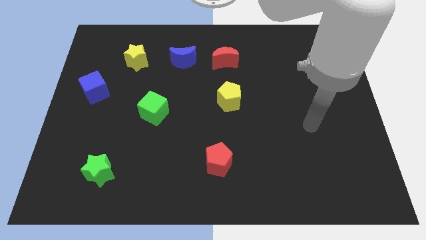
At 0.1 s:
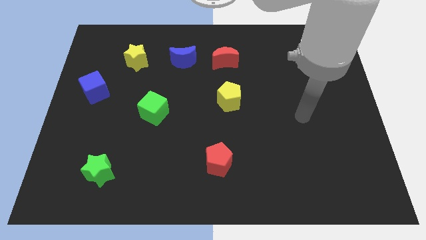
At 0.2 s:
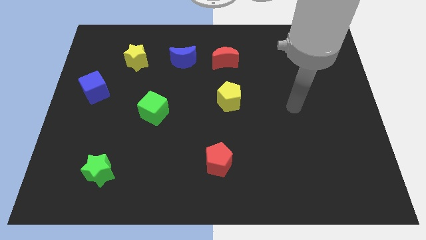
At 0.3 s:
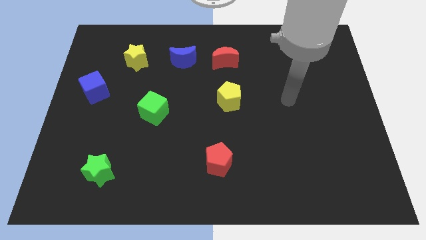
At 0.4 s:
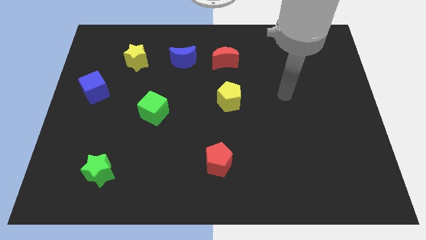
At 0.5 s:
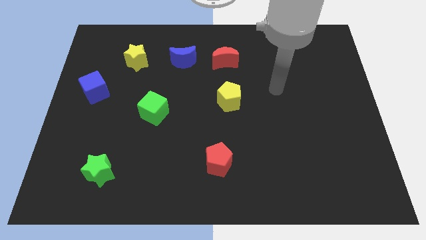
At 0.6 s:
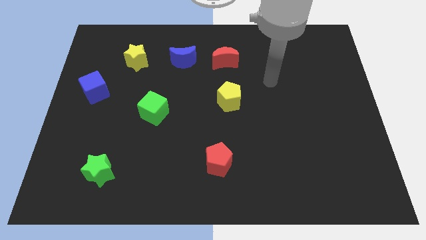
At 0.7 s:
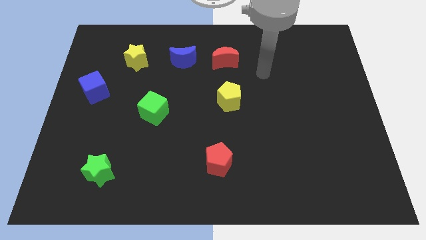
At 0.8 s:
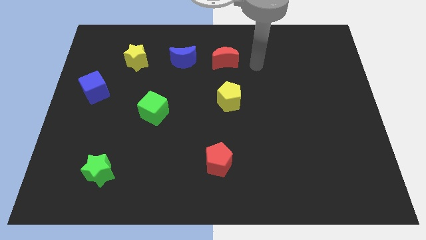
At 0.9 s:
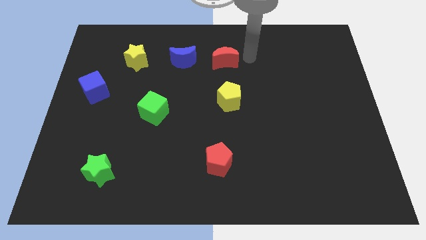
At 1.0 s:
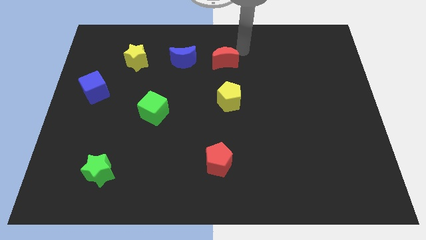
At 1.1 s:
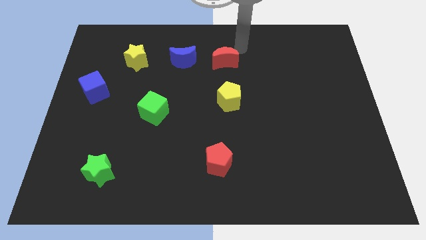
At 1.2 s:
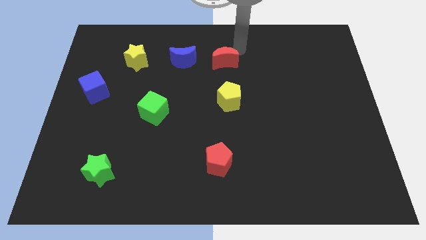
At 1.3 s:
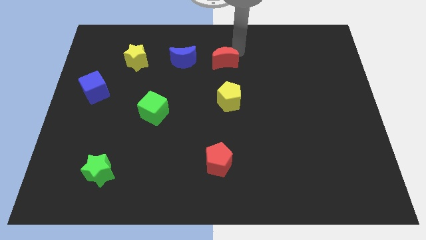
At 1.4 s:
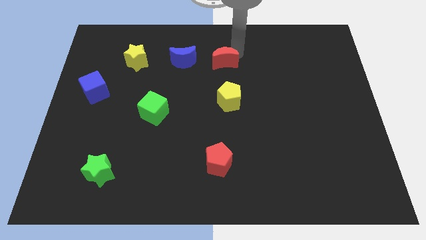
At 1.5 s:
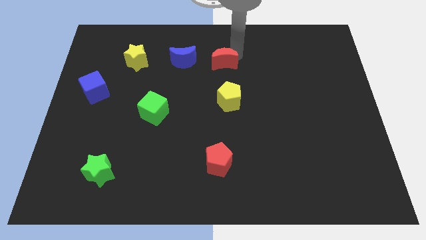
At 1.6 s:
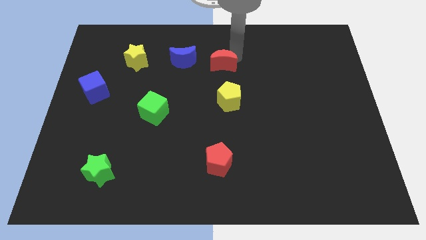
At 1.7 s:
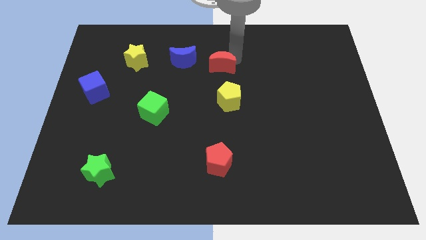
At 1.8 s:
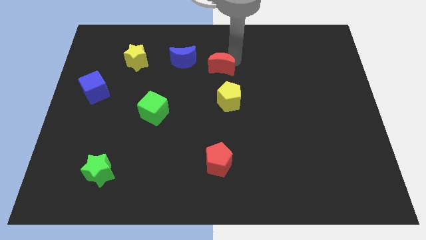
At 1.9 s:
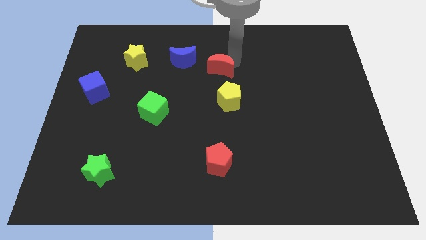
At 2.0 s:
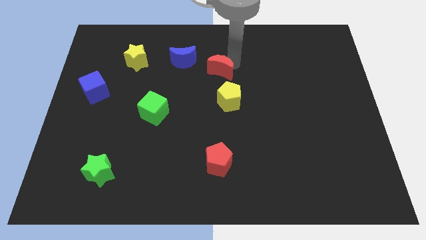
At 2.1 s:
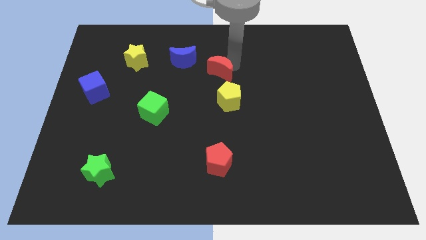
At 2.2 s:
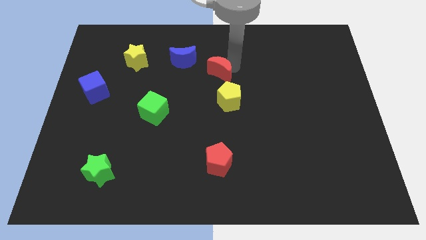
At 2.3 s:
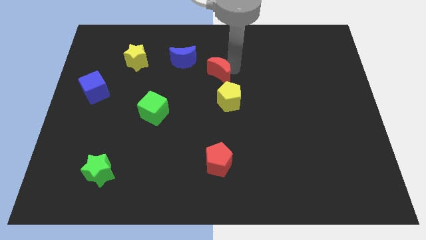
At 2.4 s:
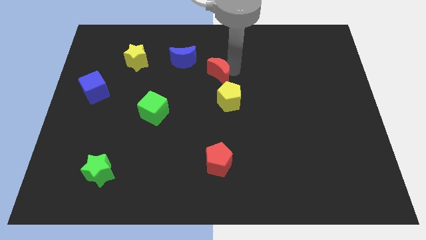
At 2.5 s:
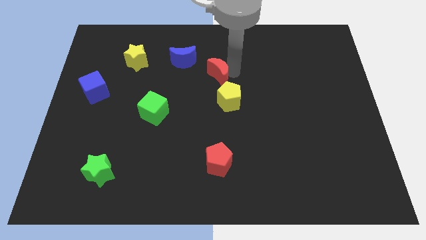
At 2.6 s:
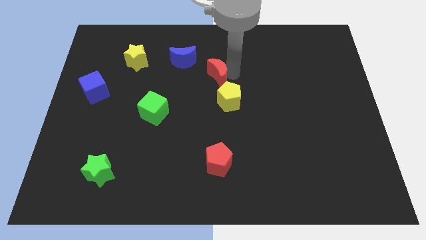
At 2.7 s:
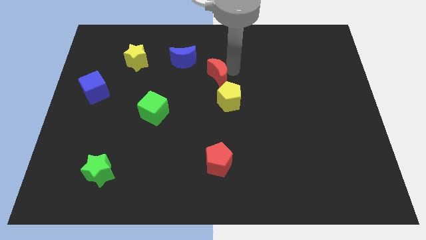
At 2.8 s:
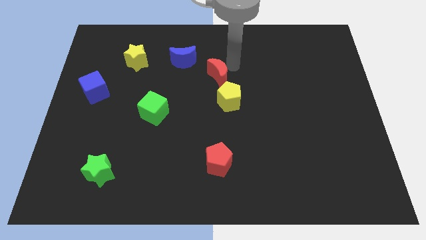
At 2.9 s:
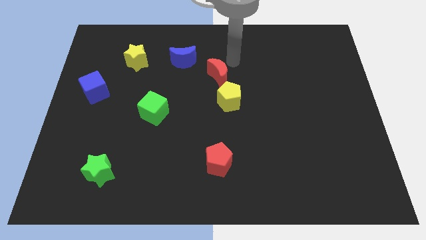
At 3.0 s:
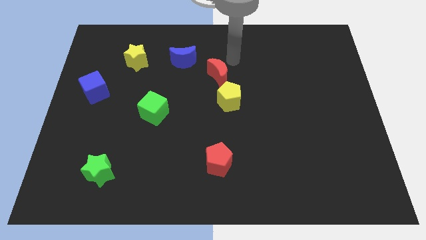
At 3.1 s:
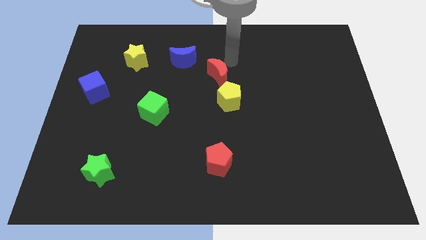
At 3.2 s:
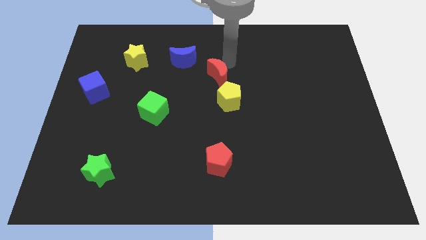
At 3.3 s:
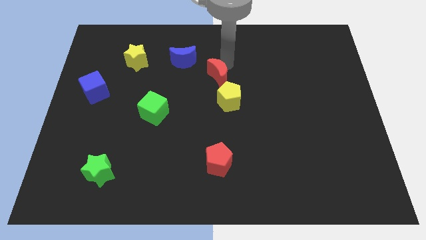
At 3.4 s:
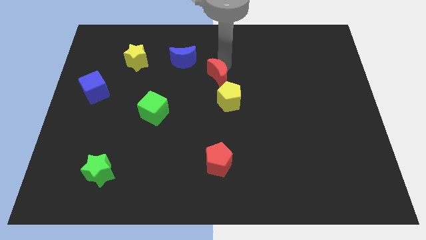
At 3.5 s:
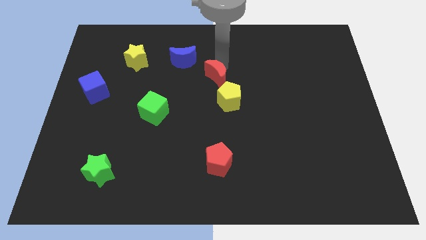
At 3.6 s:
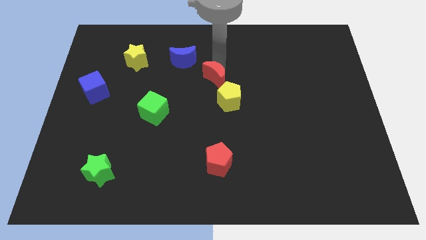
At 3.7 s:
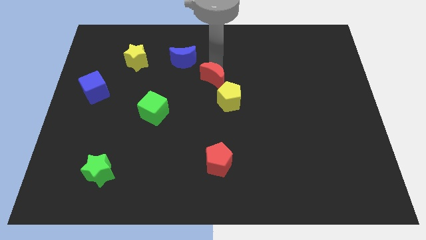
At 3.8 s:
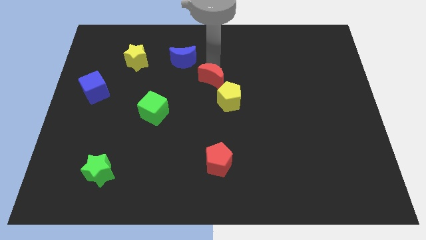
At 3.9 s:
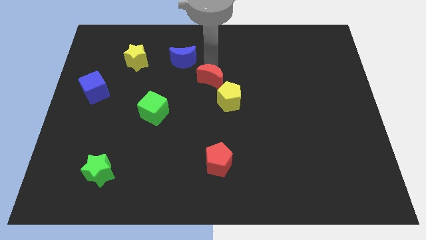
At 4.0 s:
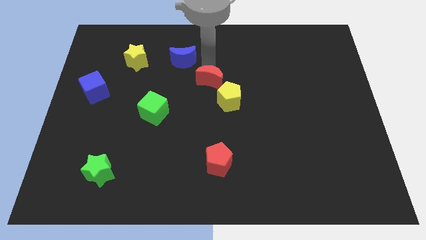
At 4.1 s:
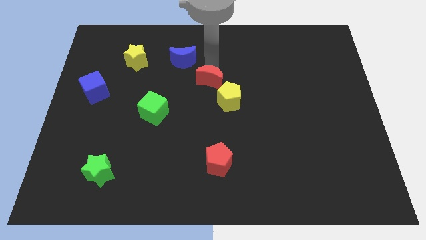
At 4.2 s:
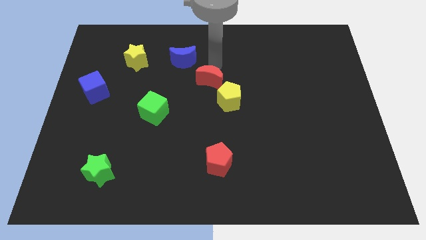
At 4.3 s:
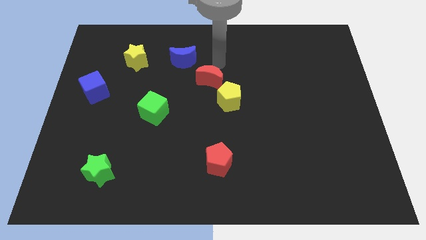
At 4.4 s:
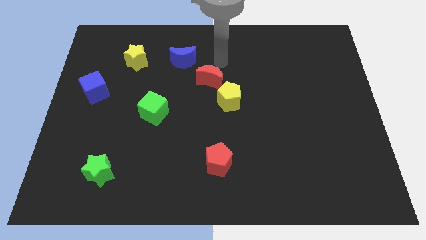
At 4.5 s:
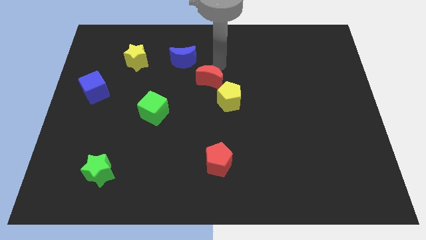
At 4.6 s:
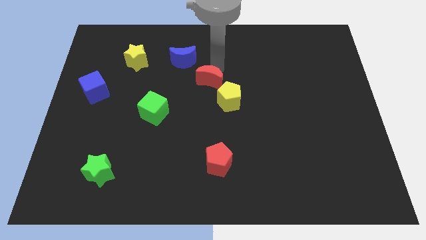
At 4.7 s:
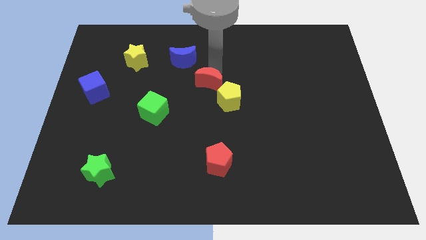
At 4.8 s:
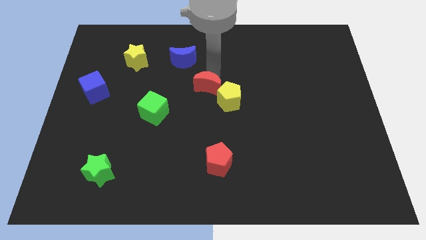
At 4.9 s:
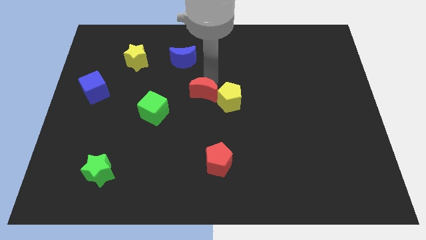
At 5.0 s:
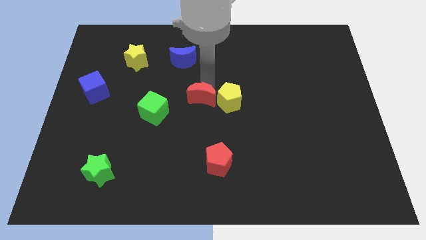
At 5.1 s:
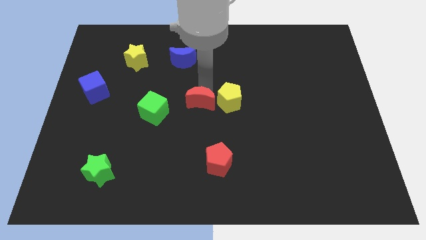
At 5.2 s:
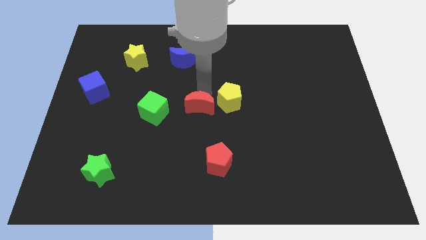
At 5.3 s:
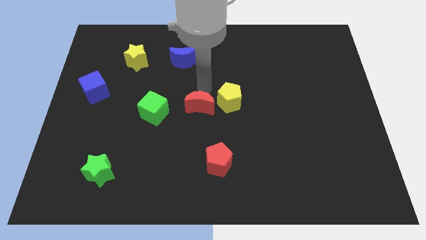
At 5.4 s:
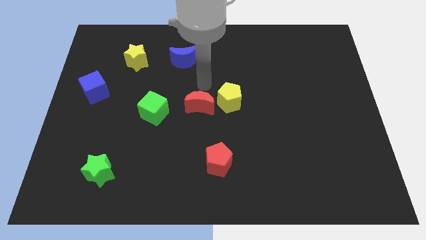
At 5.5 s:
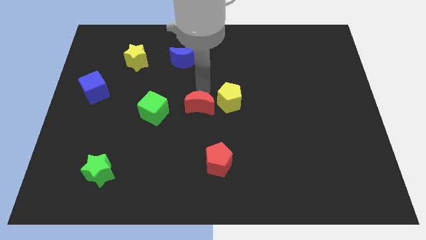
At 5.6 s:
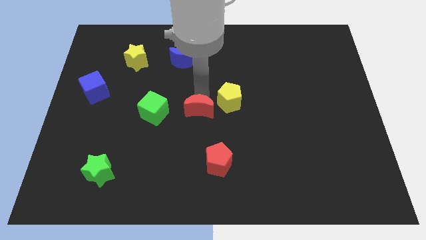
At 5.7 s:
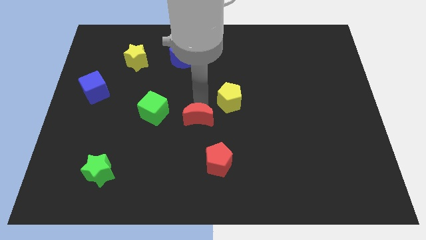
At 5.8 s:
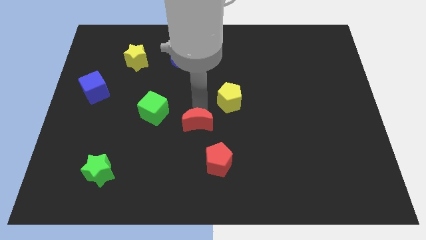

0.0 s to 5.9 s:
push the red moon to the top left side of the red pentagon

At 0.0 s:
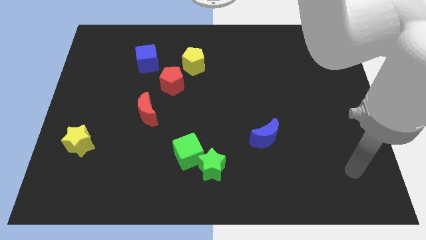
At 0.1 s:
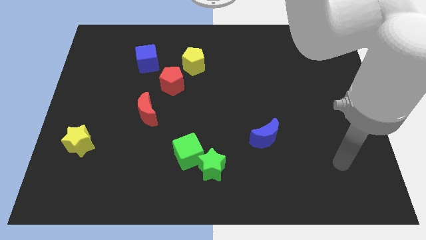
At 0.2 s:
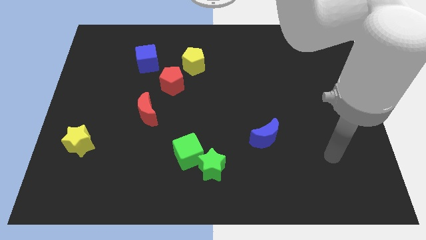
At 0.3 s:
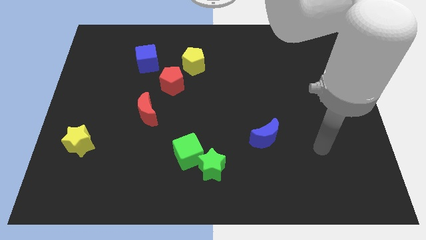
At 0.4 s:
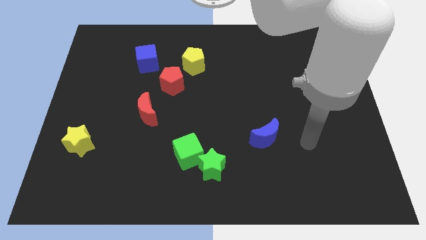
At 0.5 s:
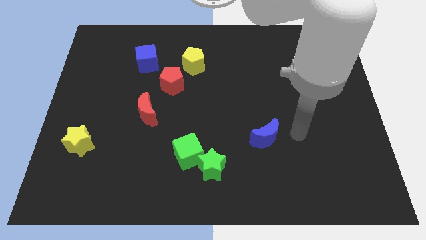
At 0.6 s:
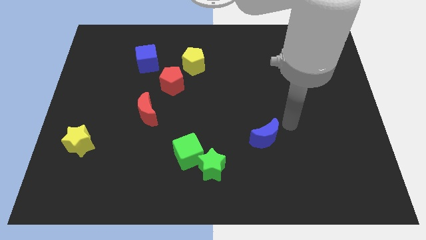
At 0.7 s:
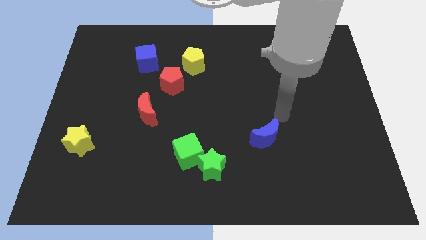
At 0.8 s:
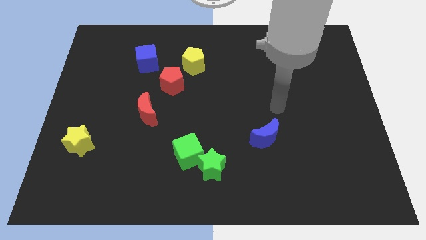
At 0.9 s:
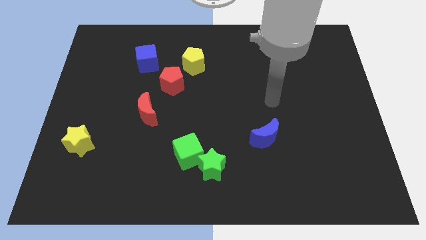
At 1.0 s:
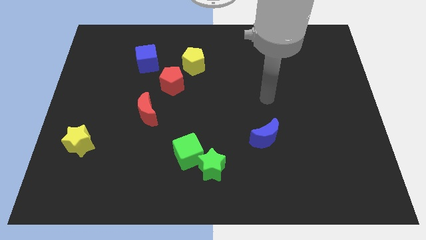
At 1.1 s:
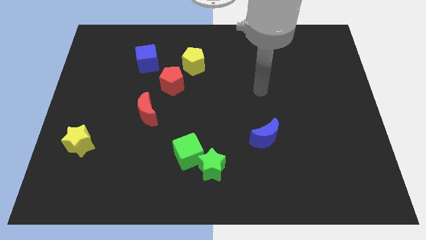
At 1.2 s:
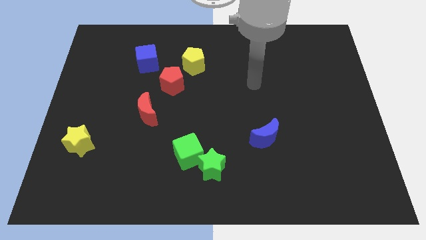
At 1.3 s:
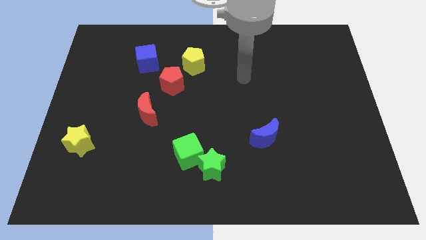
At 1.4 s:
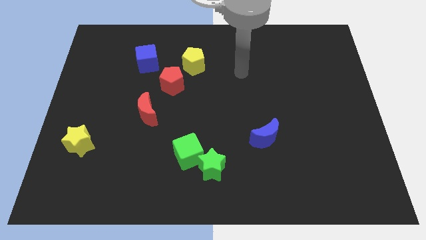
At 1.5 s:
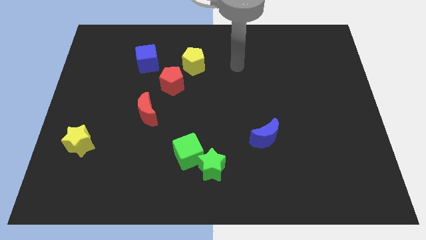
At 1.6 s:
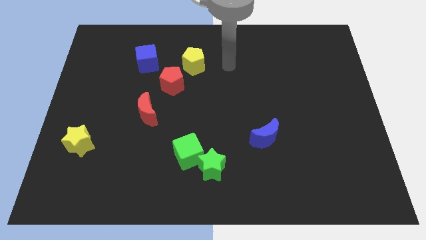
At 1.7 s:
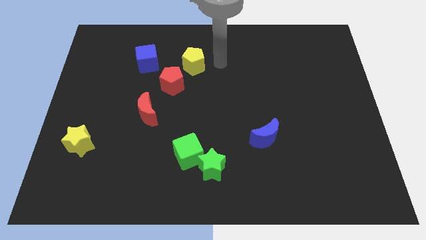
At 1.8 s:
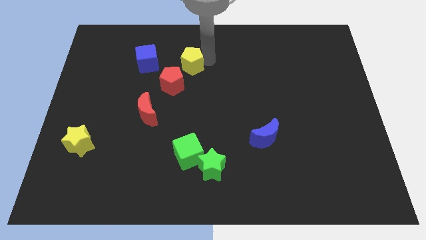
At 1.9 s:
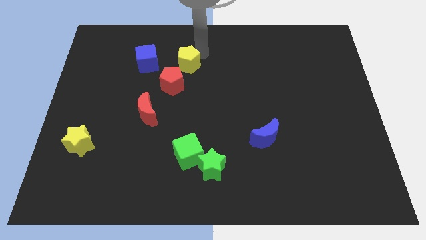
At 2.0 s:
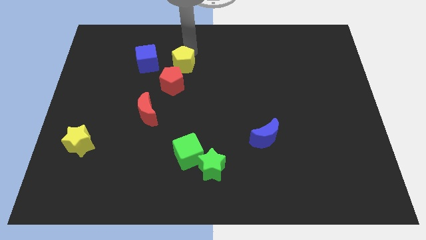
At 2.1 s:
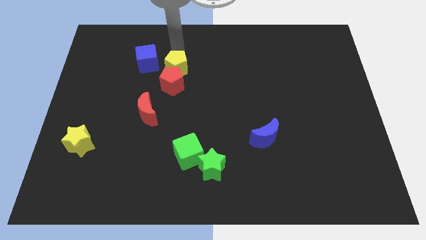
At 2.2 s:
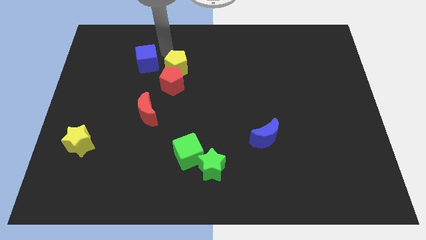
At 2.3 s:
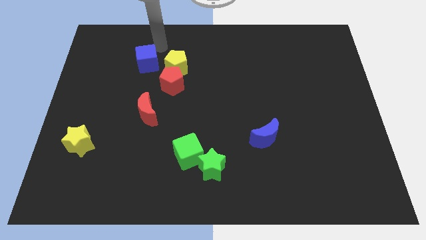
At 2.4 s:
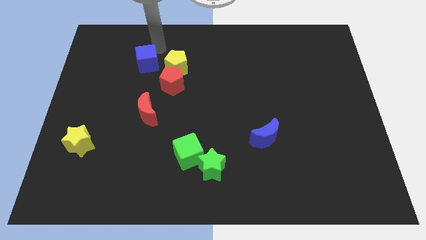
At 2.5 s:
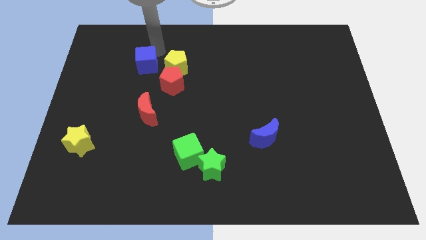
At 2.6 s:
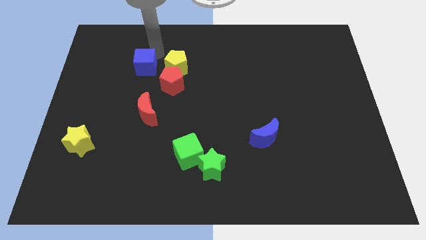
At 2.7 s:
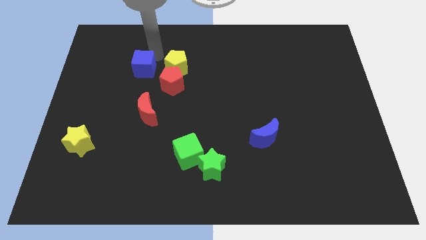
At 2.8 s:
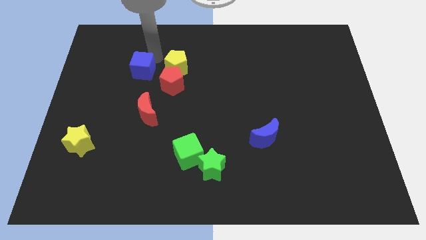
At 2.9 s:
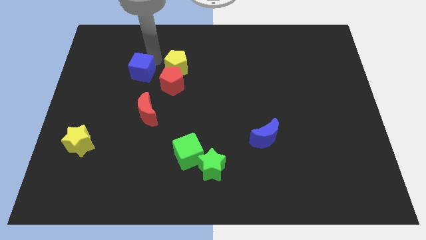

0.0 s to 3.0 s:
put the blue cube to the left side of the red pentagon
